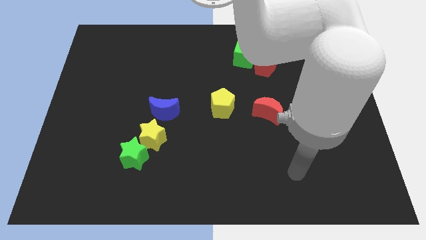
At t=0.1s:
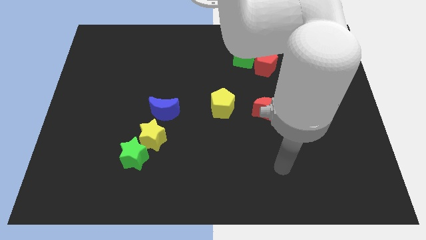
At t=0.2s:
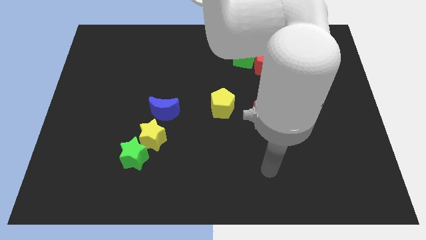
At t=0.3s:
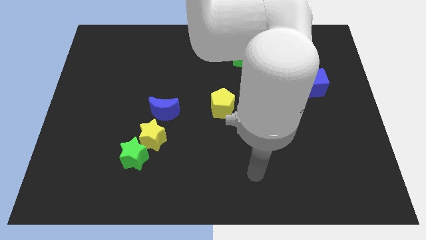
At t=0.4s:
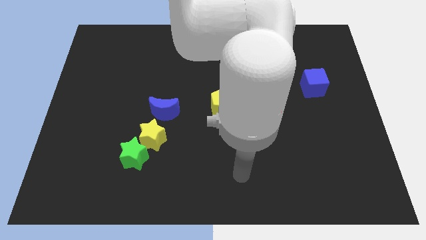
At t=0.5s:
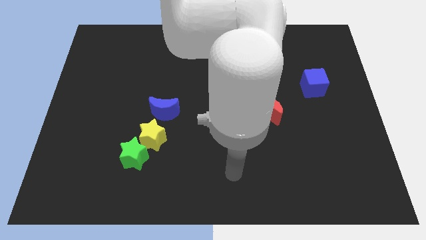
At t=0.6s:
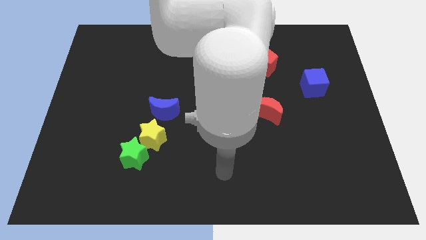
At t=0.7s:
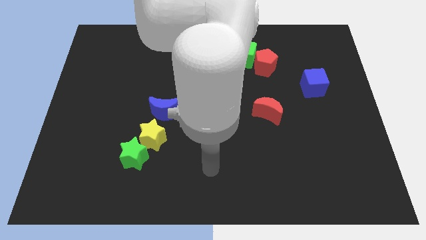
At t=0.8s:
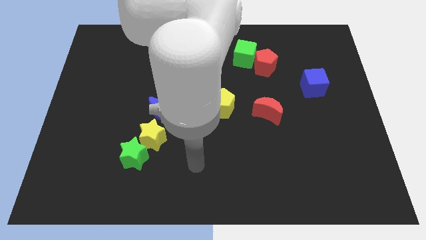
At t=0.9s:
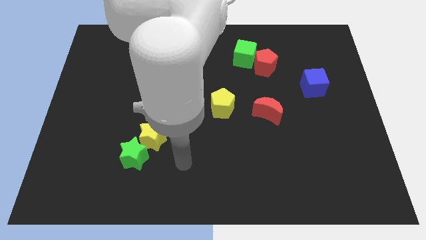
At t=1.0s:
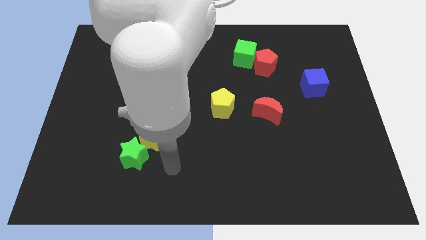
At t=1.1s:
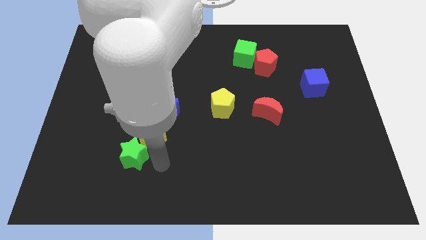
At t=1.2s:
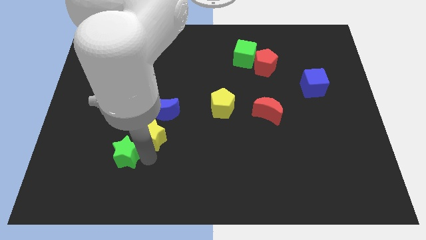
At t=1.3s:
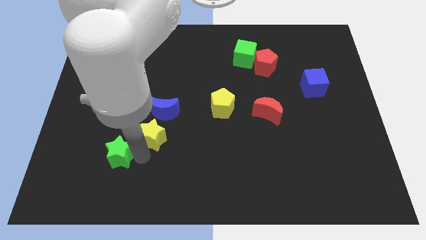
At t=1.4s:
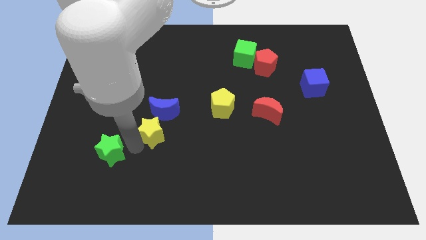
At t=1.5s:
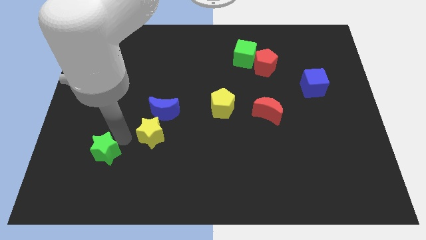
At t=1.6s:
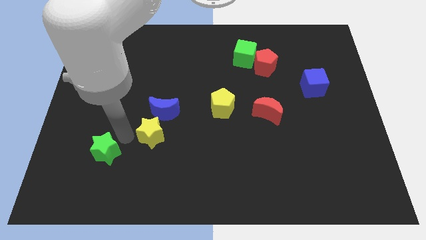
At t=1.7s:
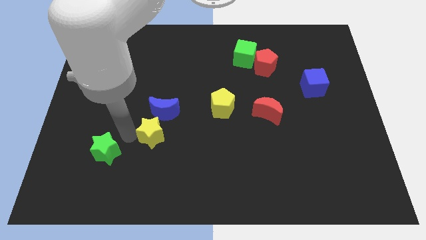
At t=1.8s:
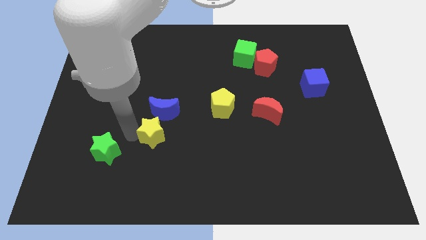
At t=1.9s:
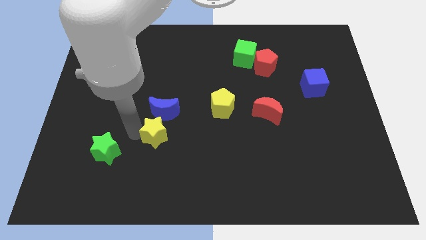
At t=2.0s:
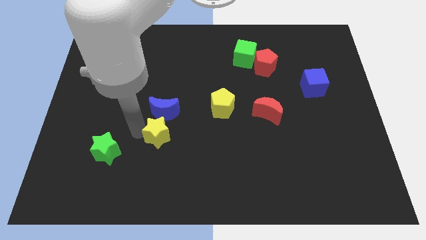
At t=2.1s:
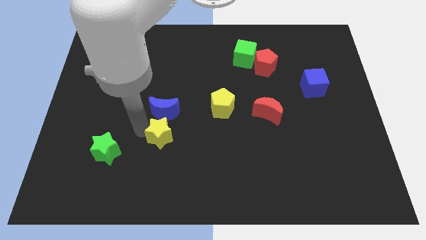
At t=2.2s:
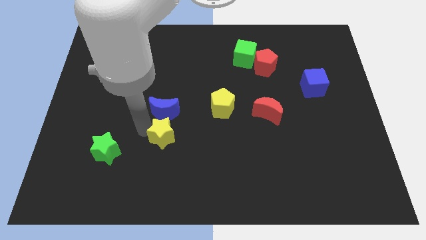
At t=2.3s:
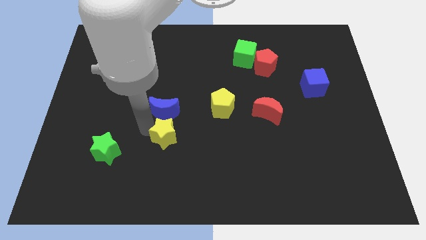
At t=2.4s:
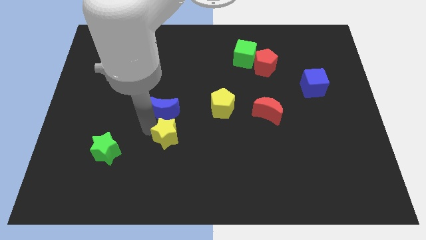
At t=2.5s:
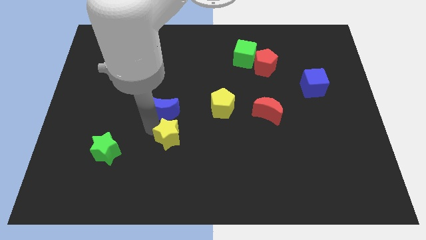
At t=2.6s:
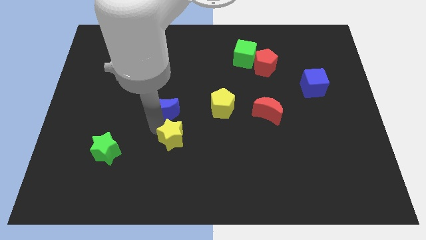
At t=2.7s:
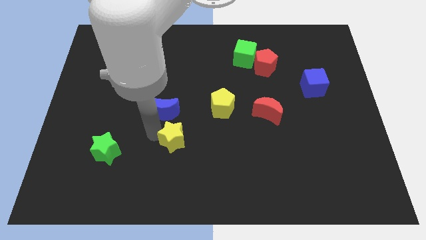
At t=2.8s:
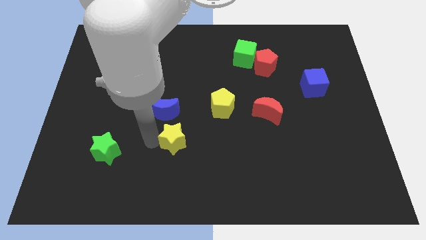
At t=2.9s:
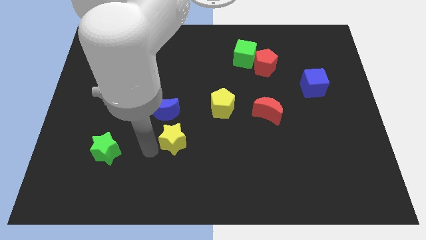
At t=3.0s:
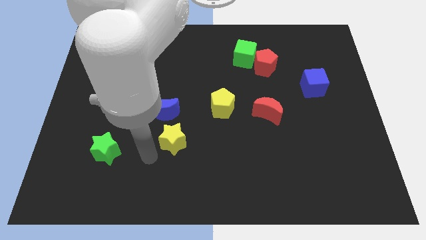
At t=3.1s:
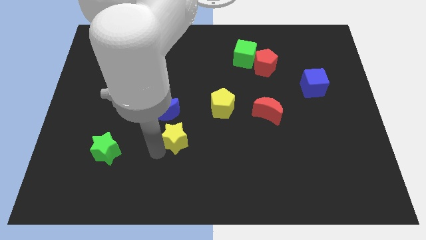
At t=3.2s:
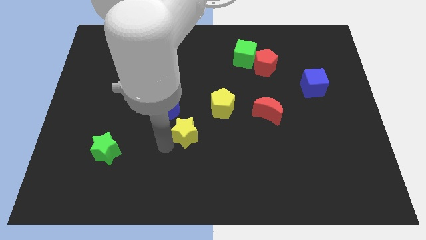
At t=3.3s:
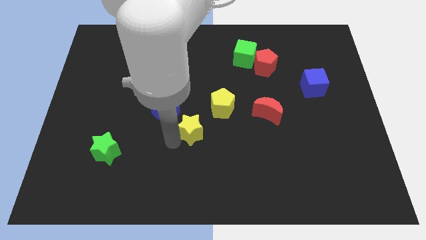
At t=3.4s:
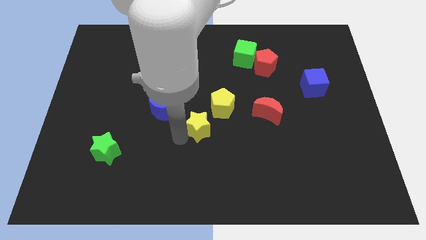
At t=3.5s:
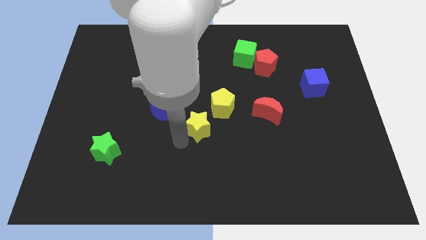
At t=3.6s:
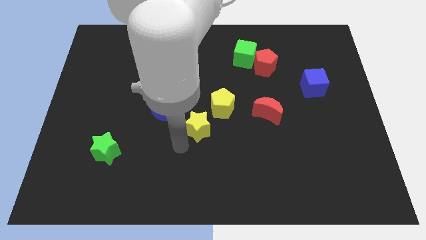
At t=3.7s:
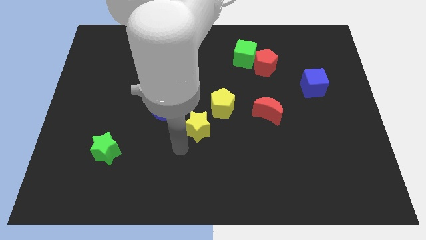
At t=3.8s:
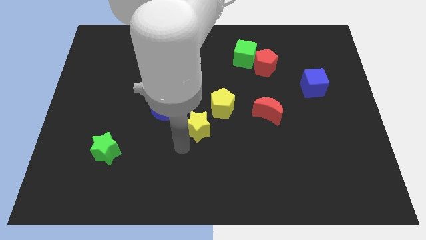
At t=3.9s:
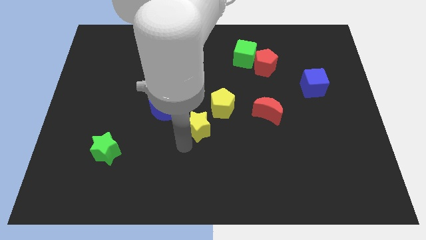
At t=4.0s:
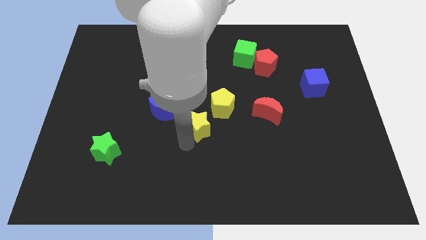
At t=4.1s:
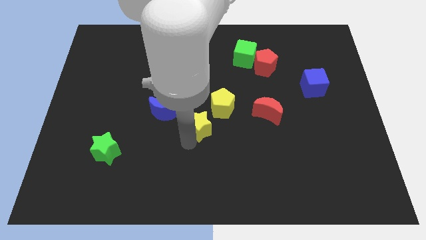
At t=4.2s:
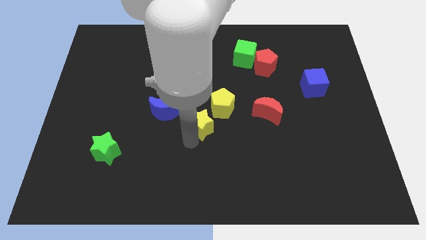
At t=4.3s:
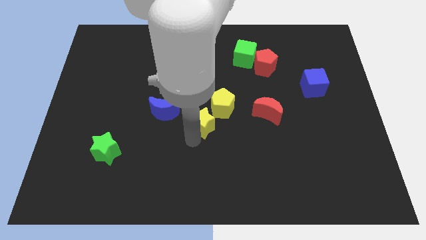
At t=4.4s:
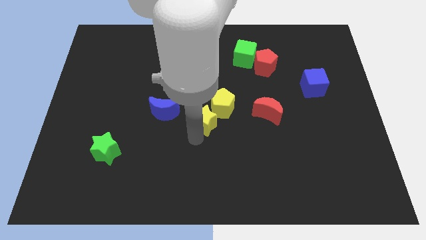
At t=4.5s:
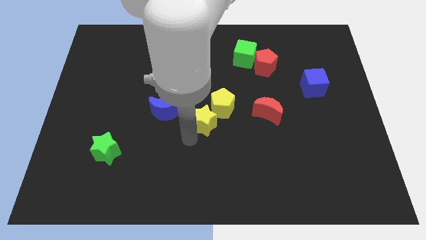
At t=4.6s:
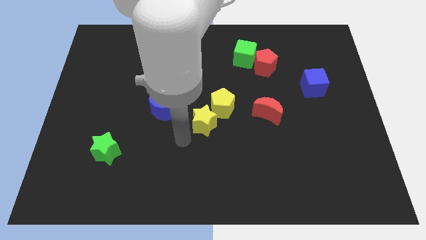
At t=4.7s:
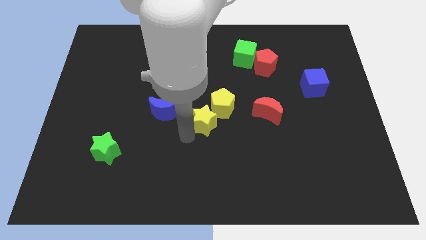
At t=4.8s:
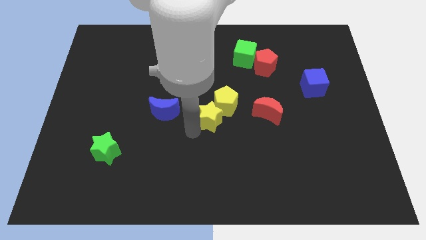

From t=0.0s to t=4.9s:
slide the yellow star next to the yellow pentagon

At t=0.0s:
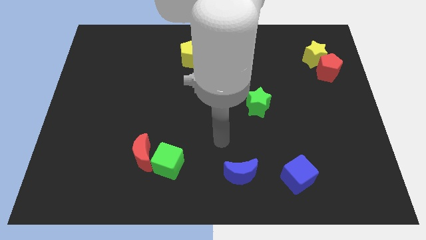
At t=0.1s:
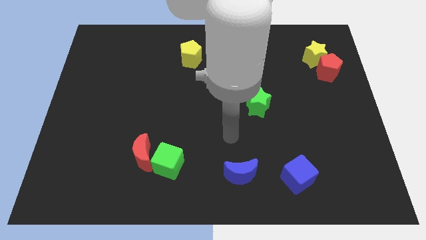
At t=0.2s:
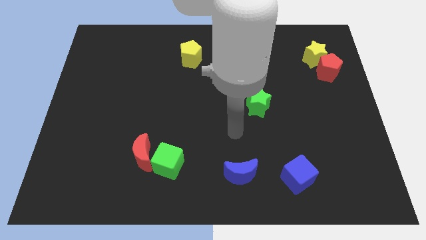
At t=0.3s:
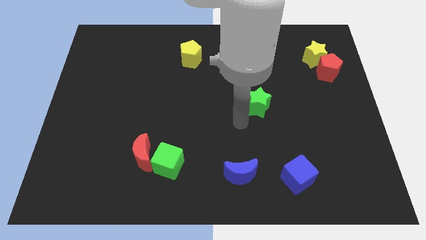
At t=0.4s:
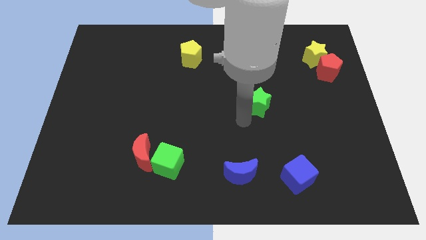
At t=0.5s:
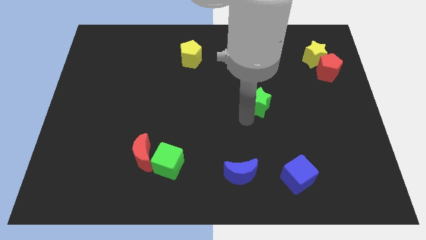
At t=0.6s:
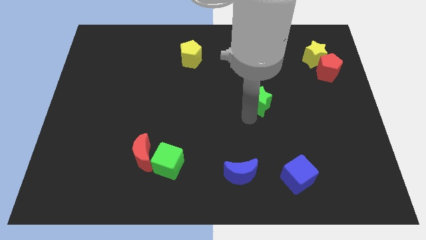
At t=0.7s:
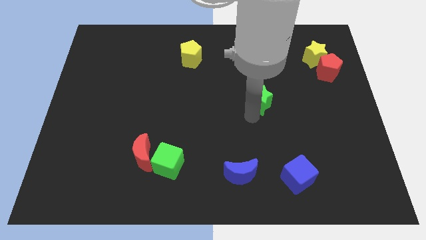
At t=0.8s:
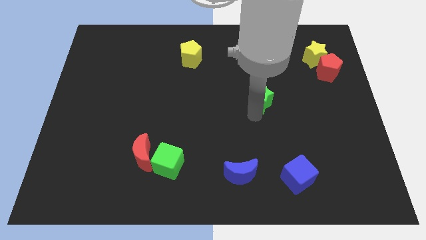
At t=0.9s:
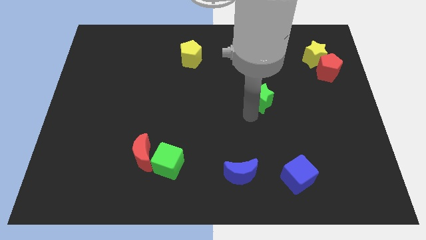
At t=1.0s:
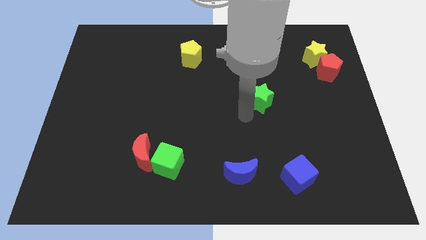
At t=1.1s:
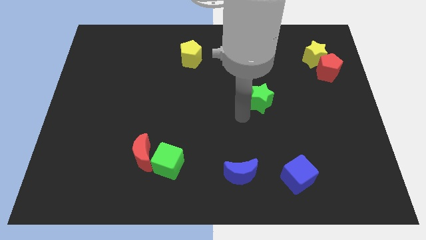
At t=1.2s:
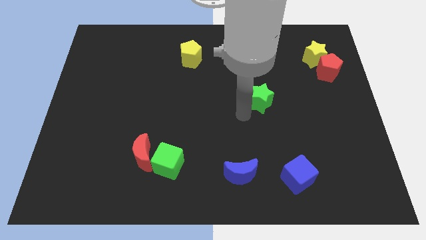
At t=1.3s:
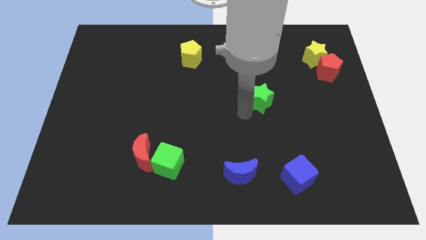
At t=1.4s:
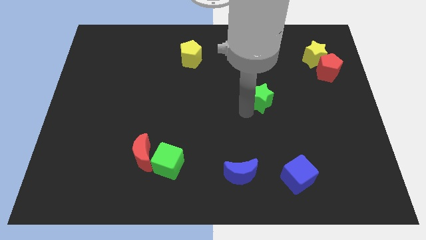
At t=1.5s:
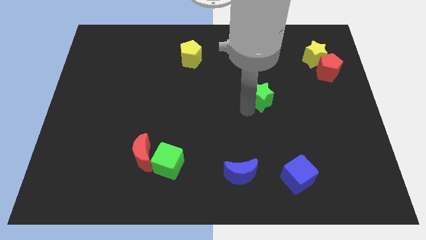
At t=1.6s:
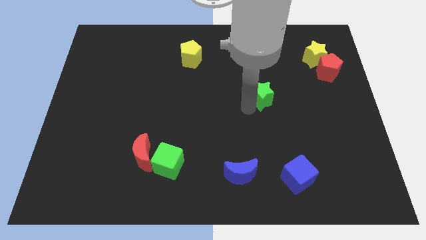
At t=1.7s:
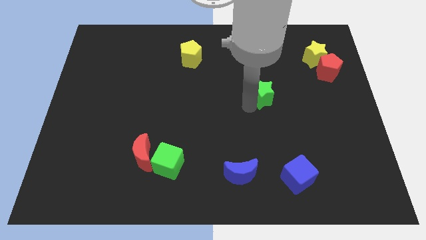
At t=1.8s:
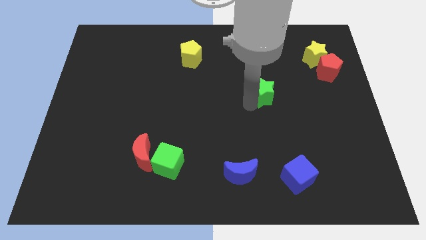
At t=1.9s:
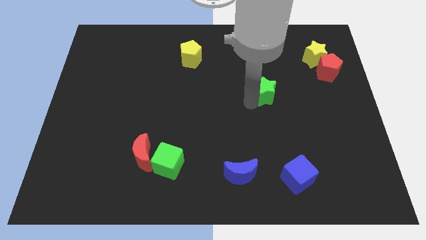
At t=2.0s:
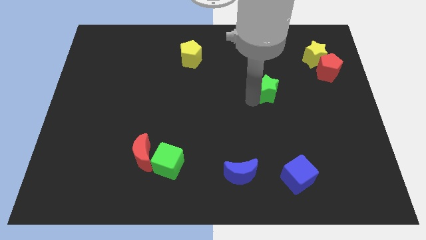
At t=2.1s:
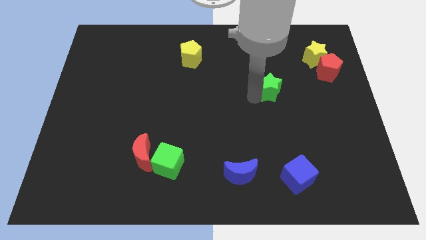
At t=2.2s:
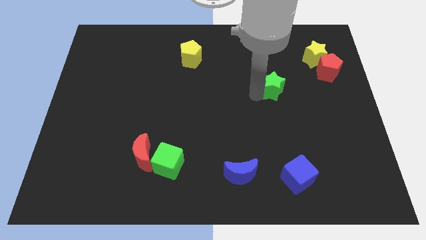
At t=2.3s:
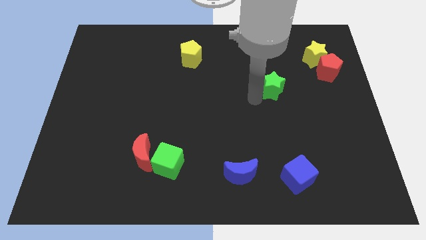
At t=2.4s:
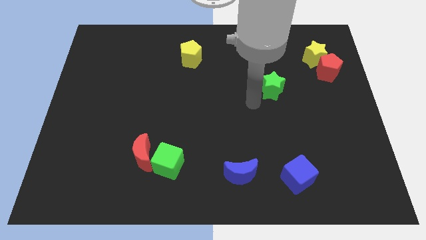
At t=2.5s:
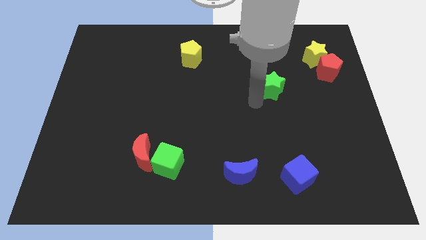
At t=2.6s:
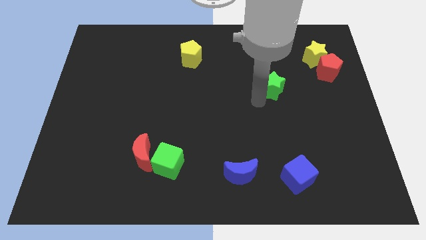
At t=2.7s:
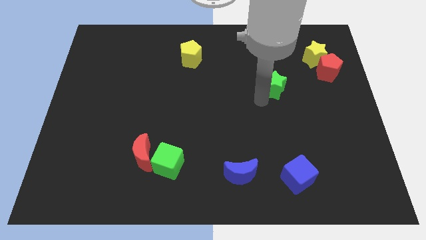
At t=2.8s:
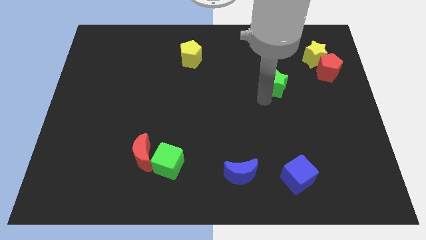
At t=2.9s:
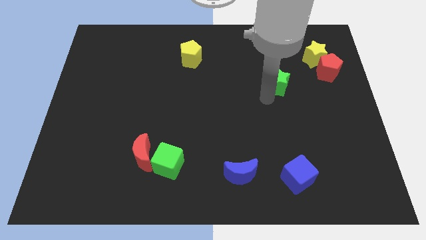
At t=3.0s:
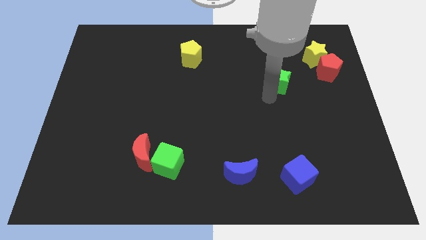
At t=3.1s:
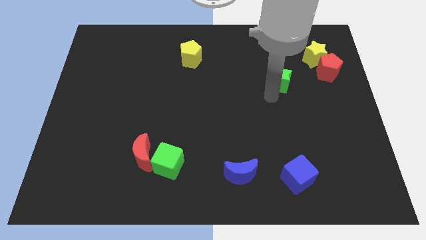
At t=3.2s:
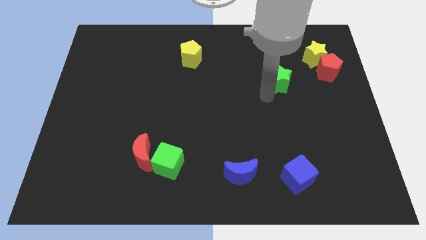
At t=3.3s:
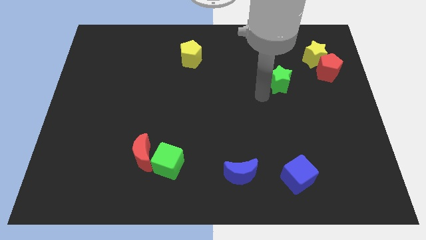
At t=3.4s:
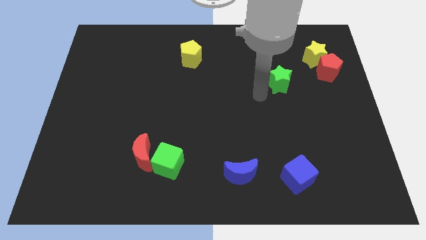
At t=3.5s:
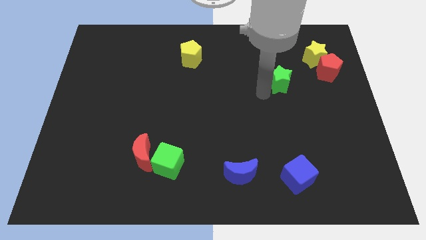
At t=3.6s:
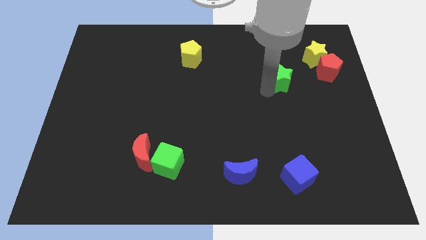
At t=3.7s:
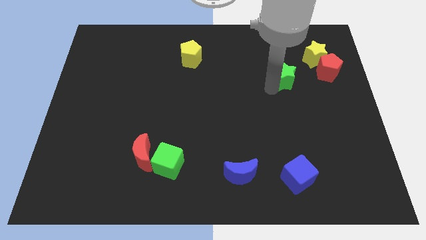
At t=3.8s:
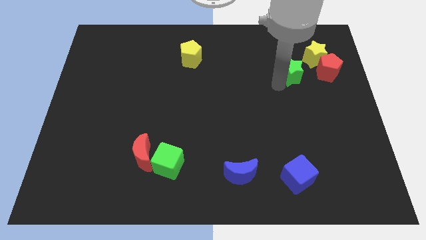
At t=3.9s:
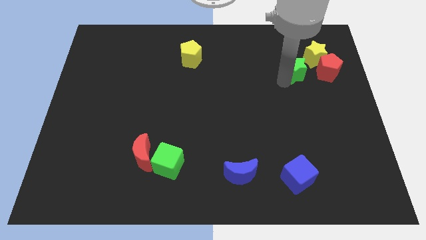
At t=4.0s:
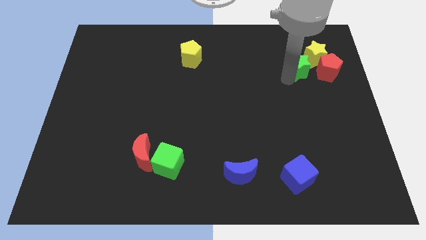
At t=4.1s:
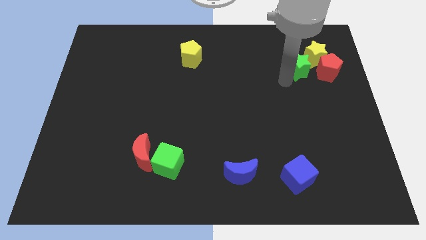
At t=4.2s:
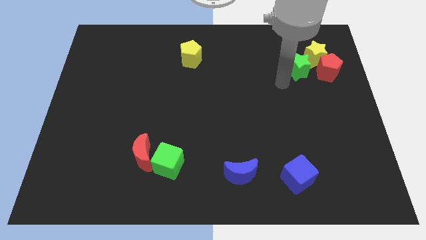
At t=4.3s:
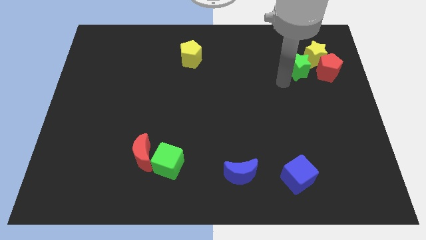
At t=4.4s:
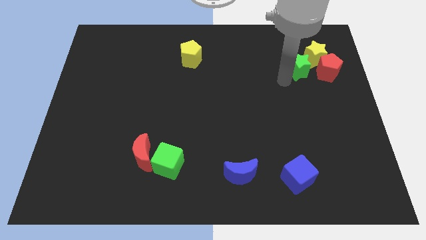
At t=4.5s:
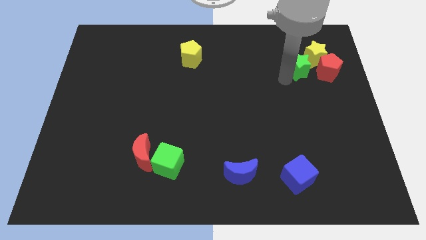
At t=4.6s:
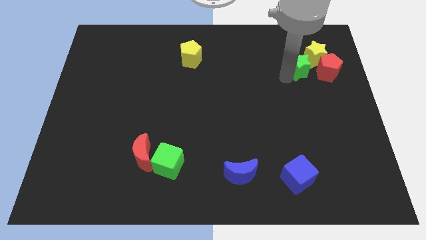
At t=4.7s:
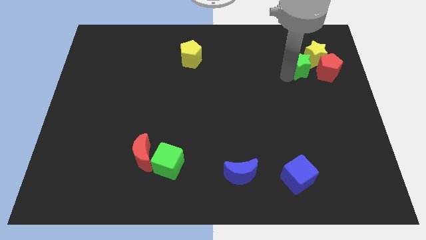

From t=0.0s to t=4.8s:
put the green star next to the yellow star
